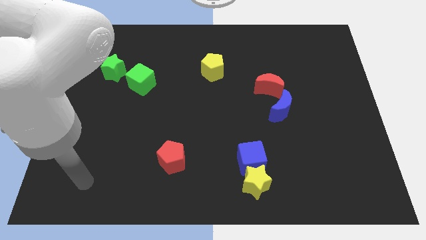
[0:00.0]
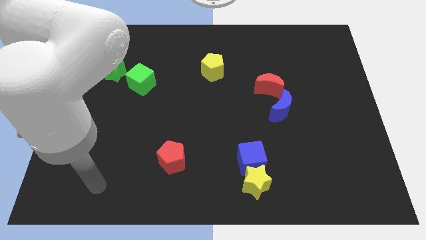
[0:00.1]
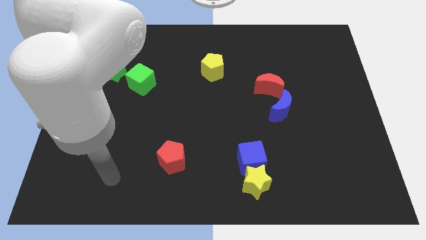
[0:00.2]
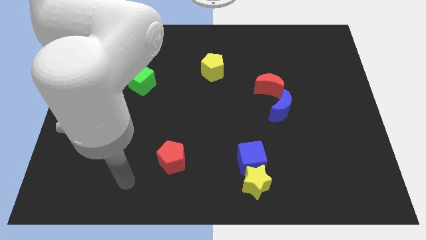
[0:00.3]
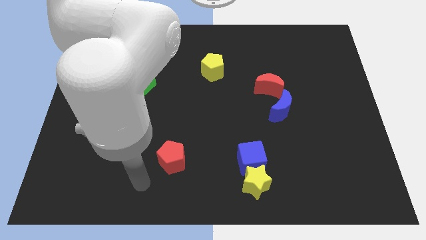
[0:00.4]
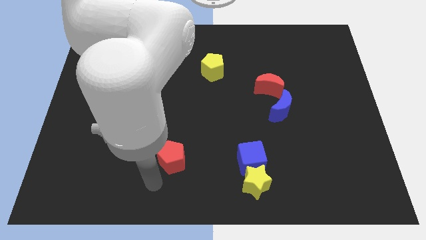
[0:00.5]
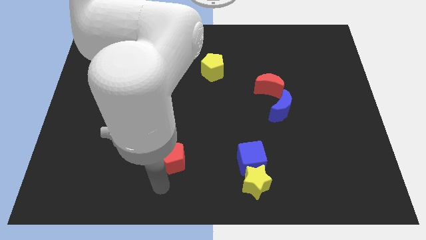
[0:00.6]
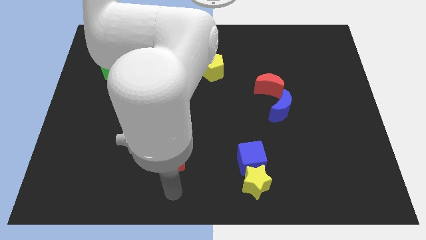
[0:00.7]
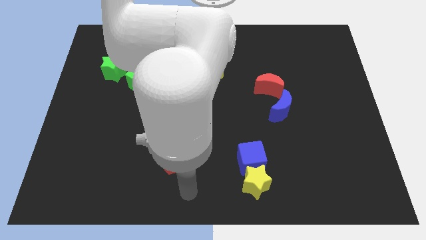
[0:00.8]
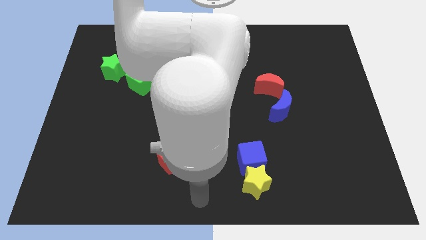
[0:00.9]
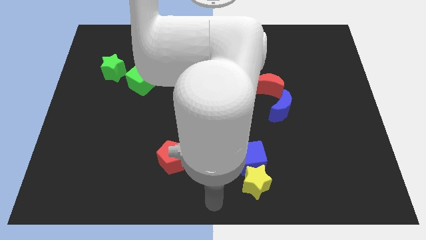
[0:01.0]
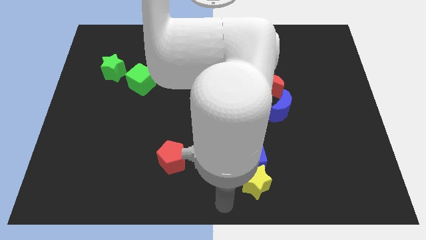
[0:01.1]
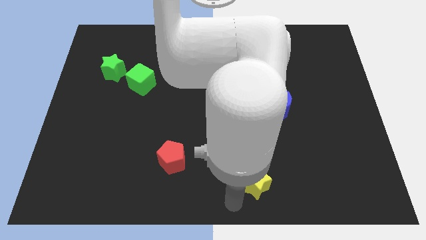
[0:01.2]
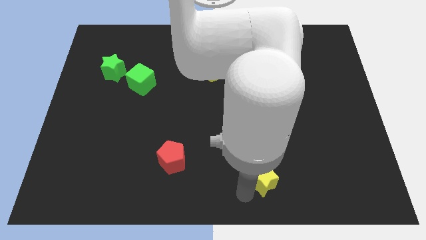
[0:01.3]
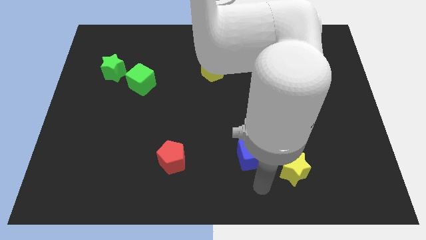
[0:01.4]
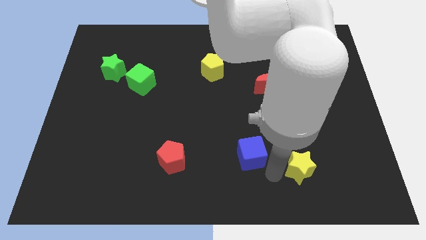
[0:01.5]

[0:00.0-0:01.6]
pull the blue cube apart from the yellow star

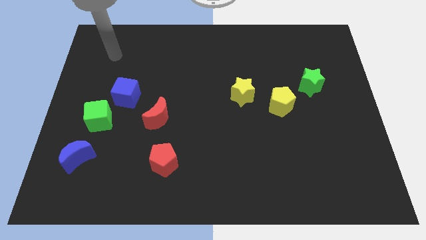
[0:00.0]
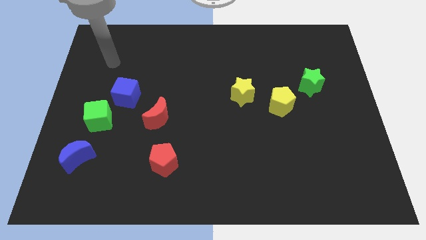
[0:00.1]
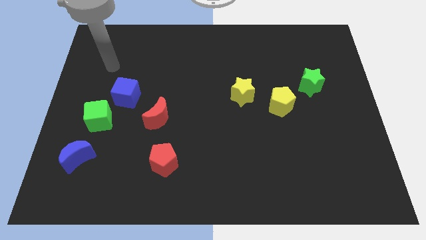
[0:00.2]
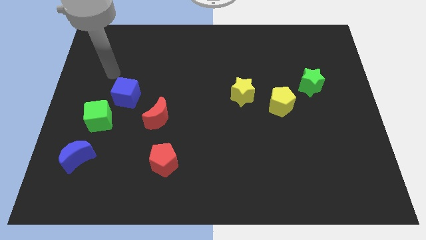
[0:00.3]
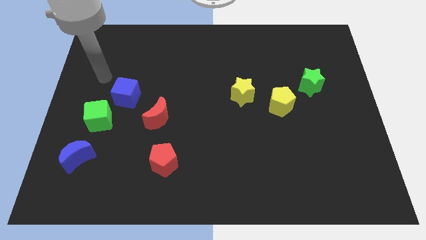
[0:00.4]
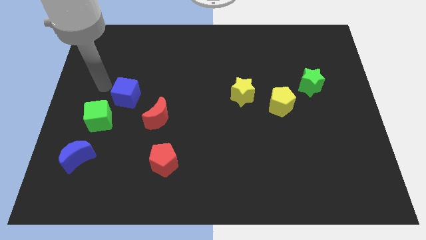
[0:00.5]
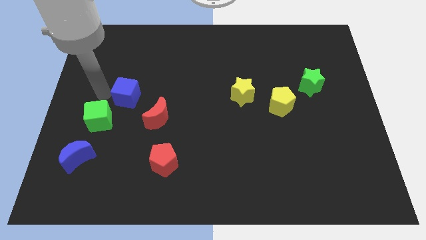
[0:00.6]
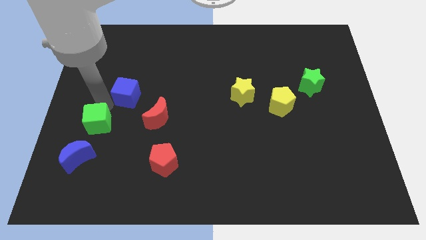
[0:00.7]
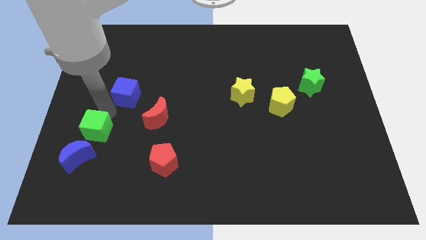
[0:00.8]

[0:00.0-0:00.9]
move the blue cube away from the green cube

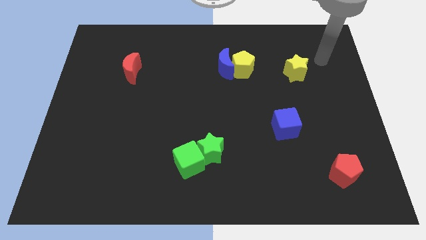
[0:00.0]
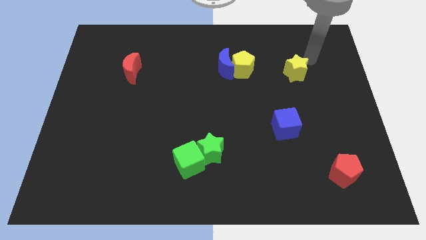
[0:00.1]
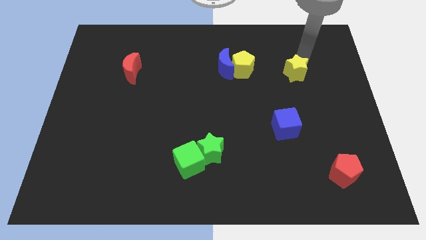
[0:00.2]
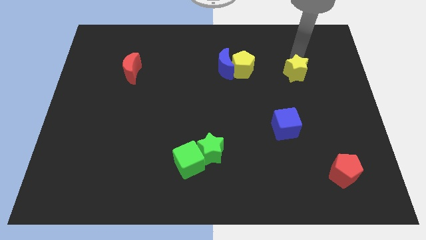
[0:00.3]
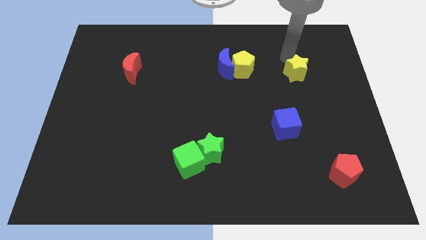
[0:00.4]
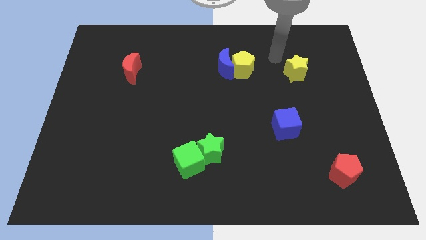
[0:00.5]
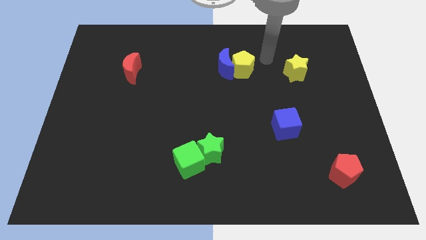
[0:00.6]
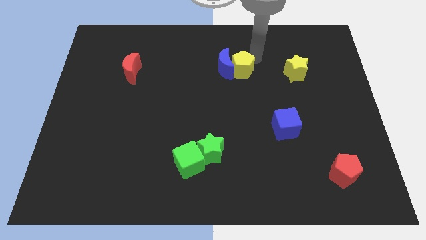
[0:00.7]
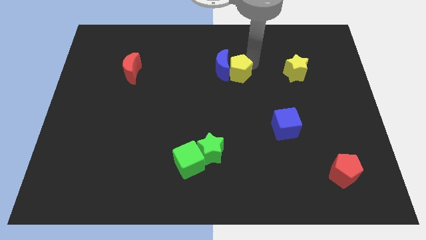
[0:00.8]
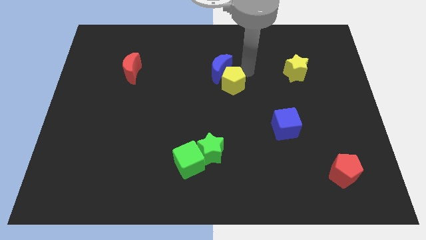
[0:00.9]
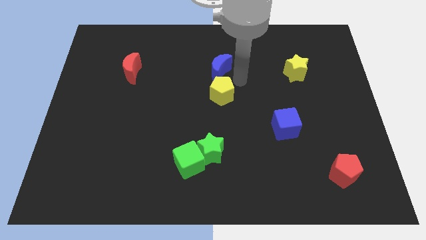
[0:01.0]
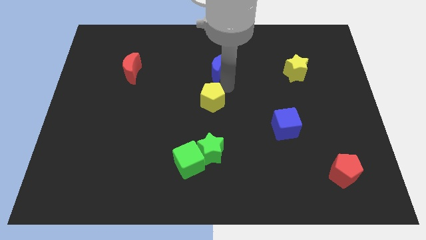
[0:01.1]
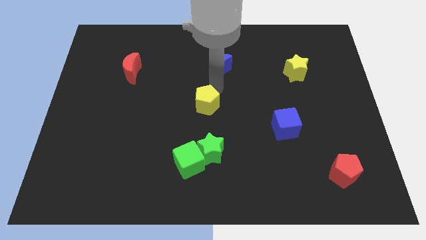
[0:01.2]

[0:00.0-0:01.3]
pull the blue moon apart from the yellow pentagon

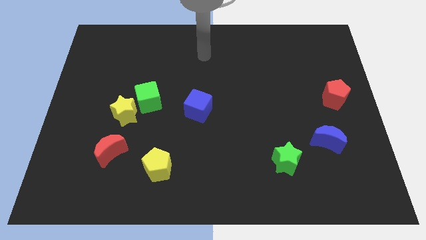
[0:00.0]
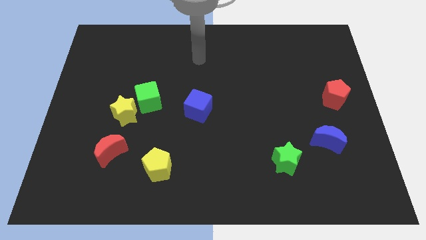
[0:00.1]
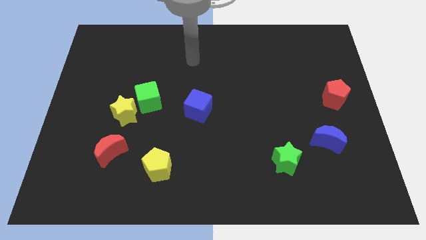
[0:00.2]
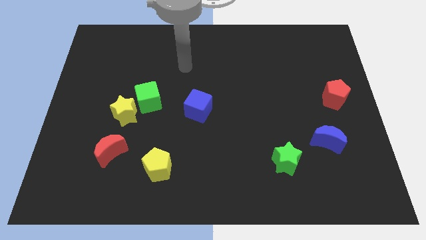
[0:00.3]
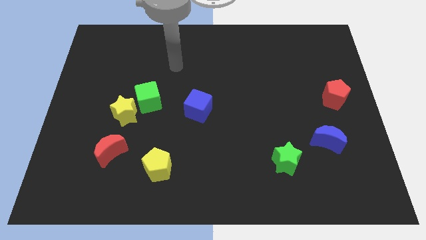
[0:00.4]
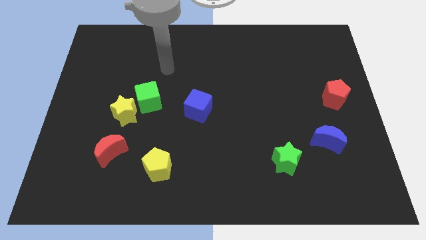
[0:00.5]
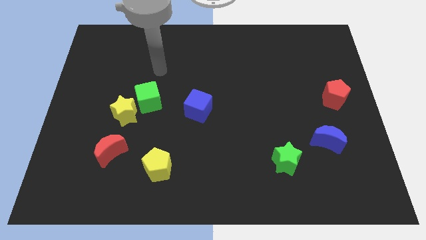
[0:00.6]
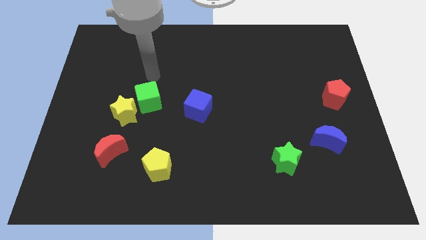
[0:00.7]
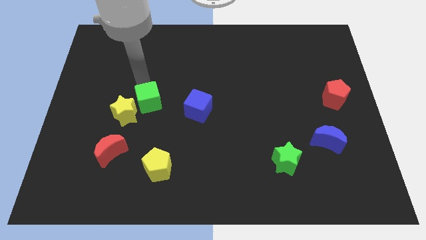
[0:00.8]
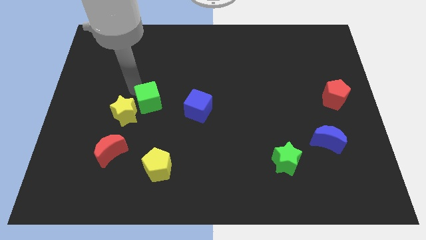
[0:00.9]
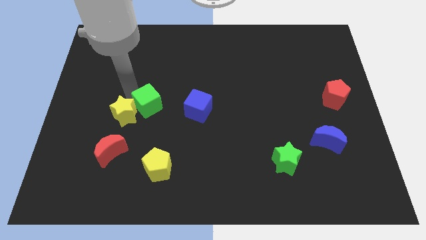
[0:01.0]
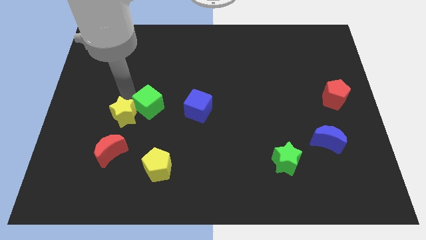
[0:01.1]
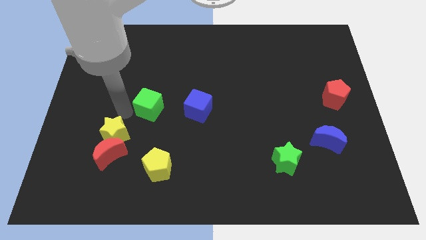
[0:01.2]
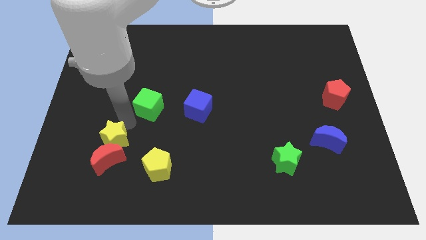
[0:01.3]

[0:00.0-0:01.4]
move the green cube away from the yellow star

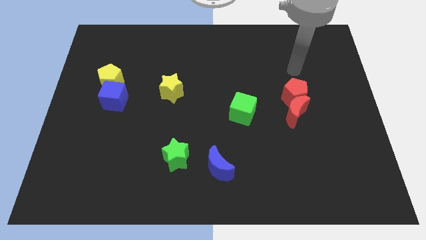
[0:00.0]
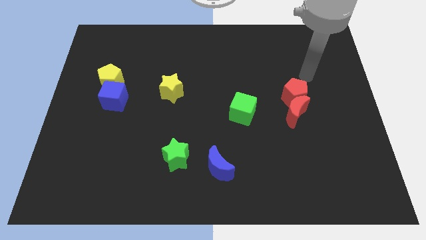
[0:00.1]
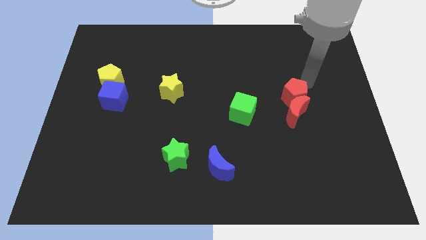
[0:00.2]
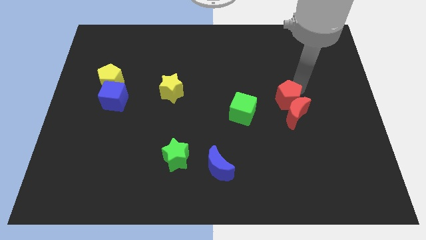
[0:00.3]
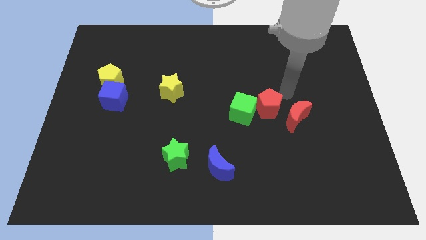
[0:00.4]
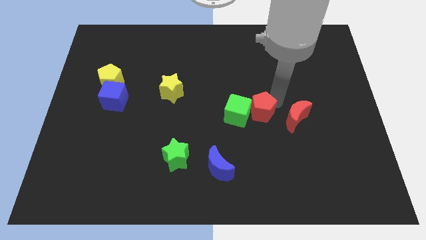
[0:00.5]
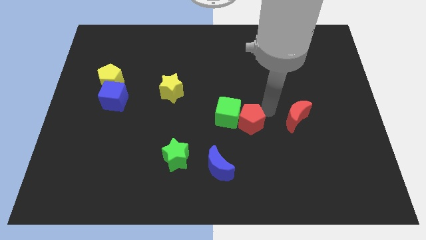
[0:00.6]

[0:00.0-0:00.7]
move the red moon away from the red pentagon

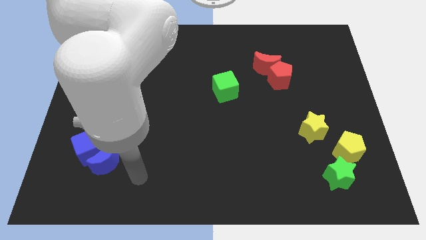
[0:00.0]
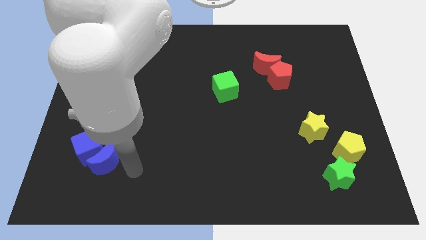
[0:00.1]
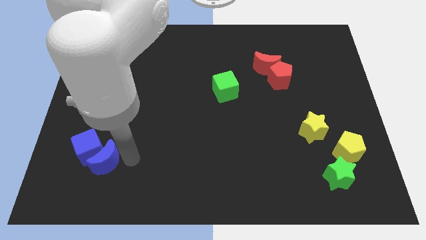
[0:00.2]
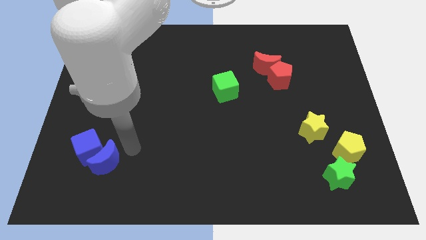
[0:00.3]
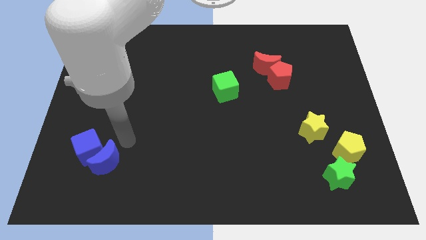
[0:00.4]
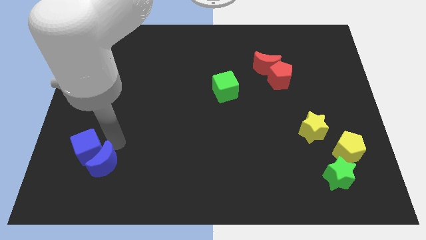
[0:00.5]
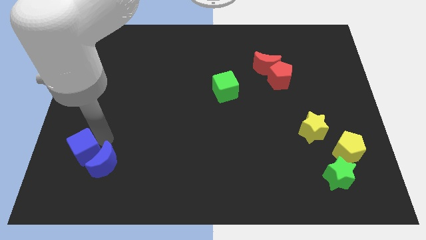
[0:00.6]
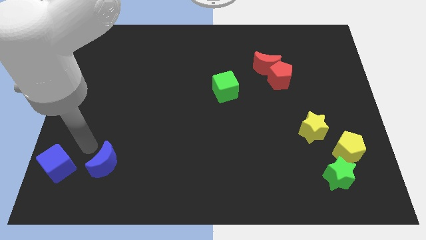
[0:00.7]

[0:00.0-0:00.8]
move the blue moon away from the blue cube

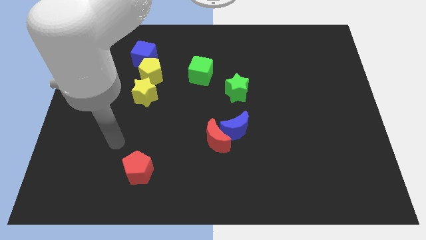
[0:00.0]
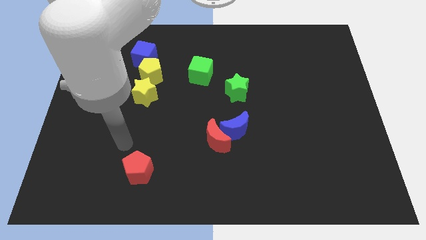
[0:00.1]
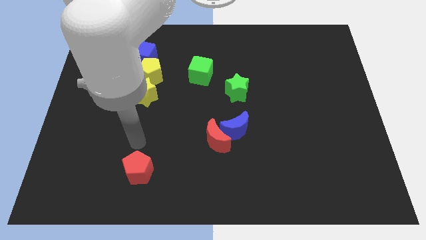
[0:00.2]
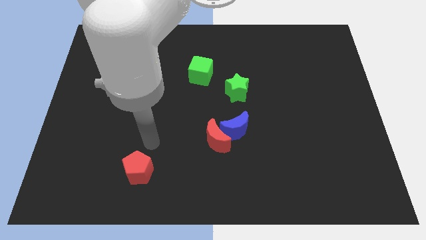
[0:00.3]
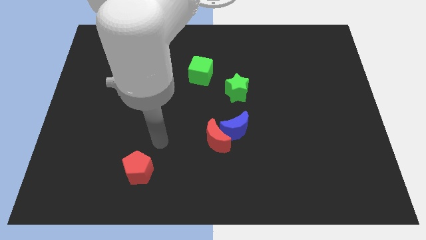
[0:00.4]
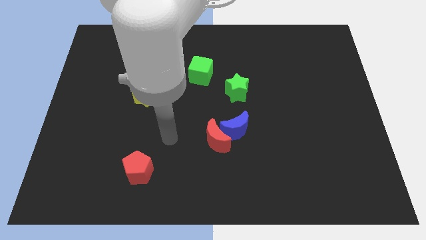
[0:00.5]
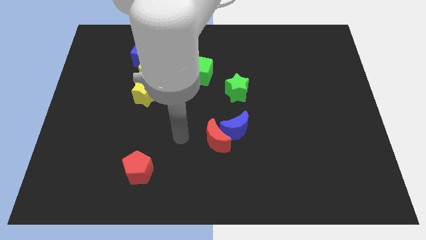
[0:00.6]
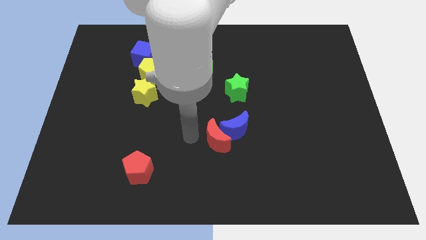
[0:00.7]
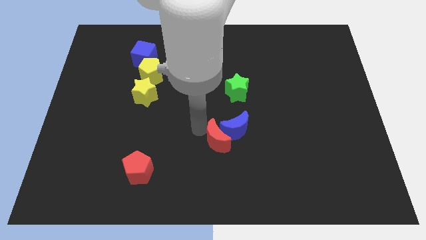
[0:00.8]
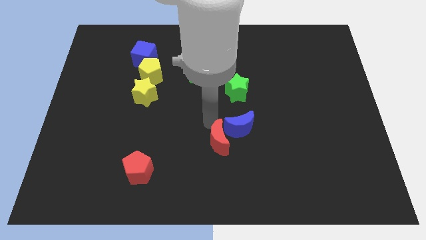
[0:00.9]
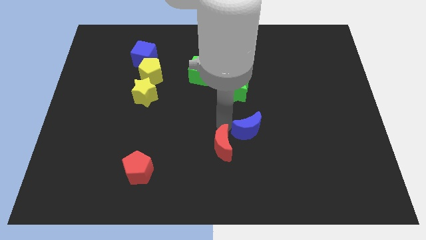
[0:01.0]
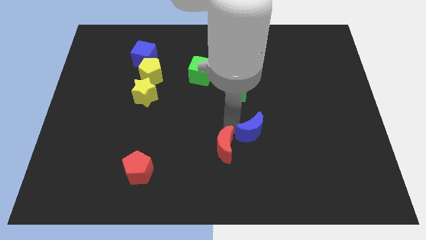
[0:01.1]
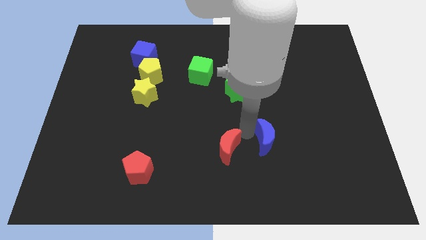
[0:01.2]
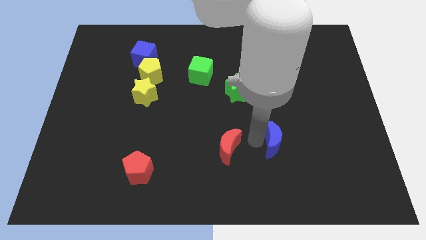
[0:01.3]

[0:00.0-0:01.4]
pull the red moon apart from the blue moon

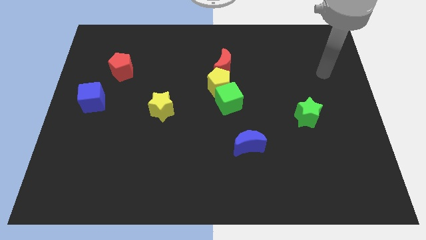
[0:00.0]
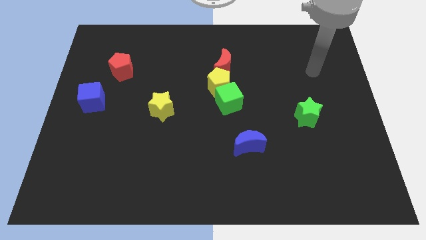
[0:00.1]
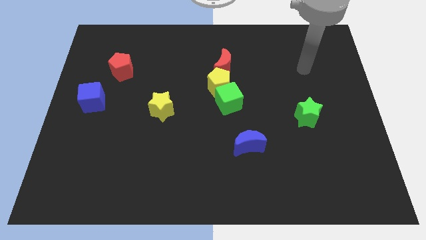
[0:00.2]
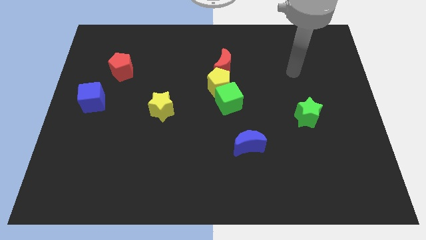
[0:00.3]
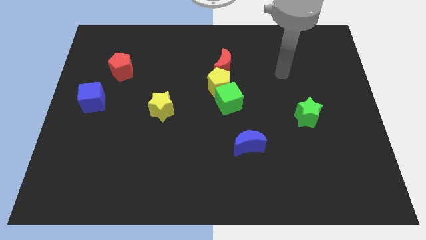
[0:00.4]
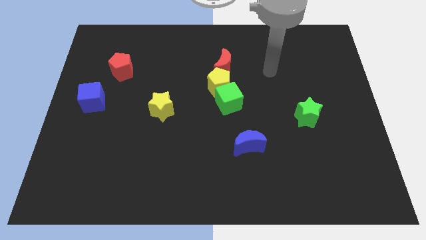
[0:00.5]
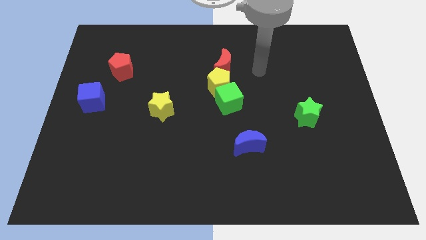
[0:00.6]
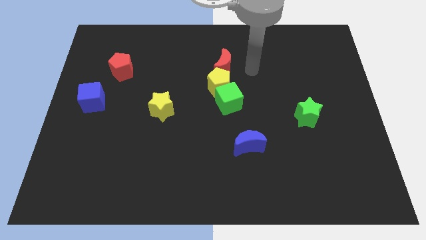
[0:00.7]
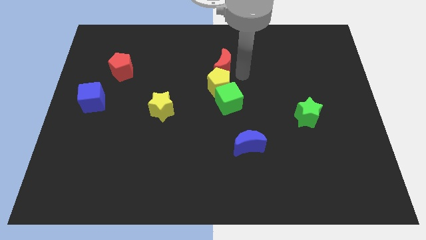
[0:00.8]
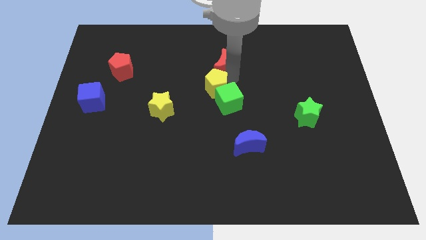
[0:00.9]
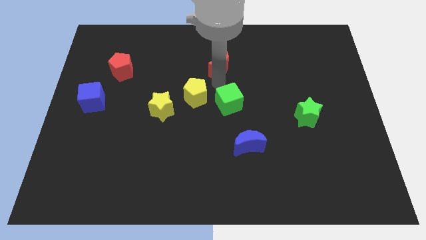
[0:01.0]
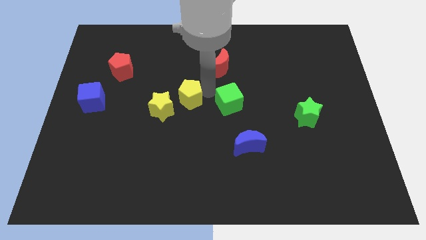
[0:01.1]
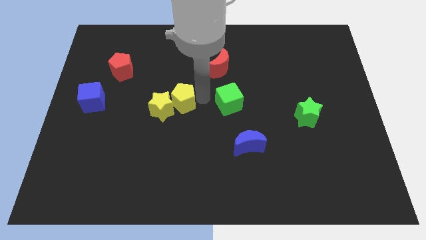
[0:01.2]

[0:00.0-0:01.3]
separate the green cube from the yellow pentagon

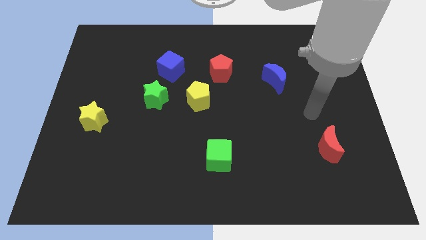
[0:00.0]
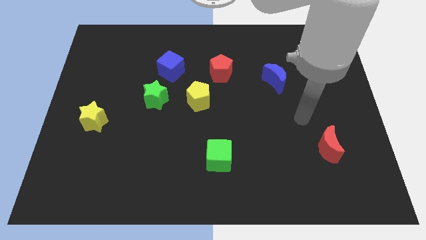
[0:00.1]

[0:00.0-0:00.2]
move the blue cube away from the green star
